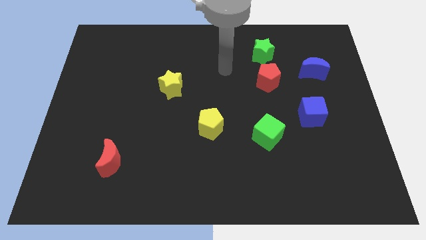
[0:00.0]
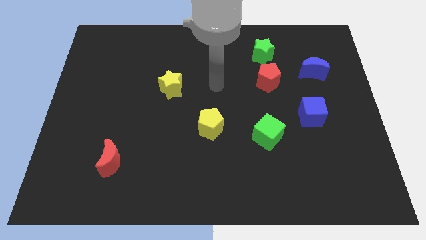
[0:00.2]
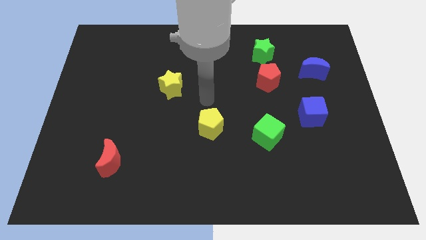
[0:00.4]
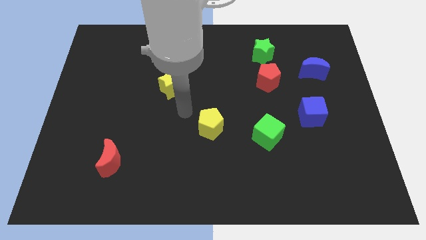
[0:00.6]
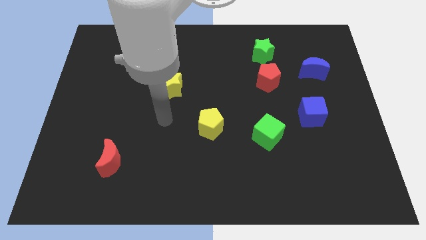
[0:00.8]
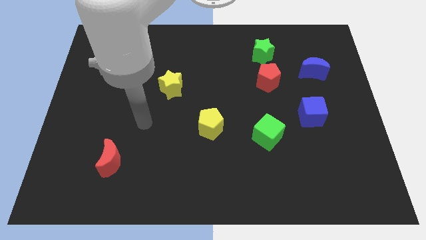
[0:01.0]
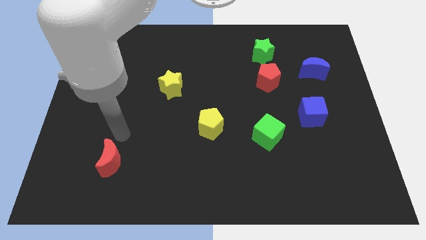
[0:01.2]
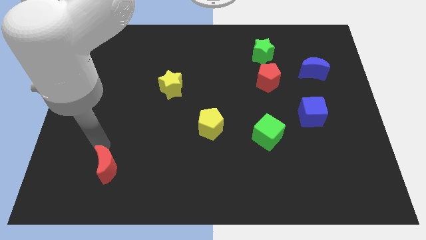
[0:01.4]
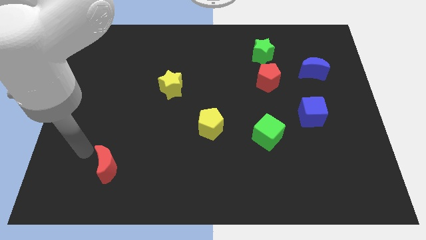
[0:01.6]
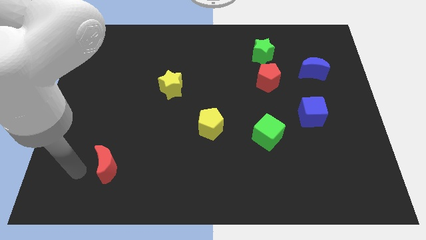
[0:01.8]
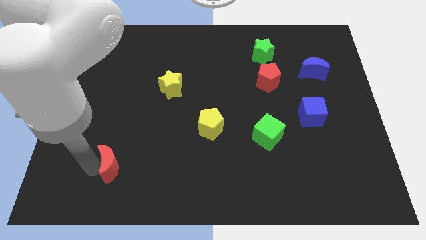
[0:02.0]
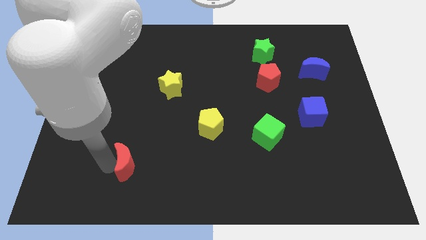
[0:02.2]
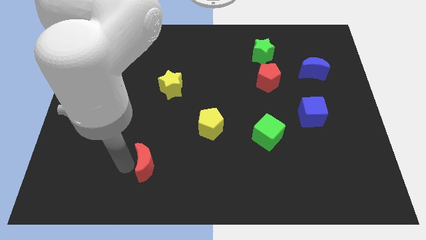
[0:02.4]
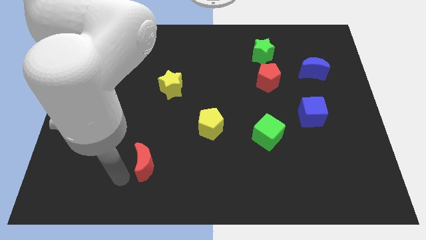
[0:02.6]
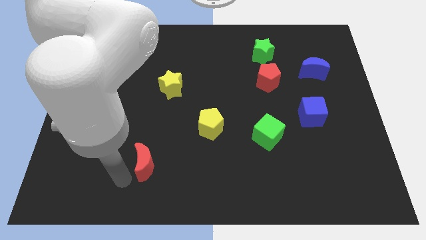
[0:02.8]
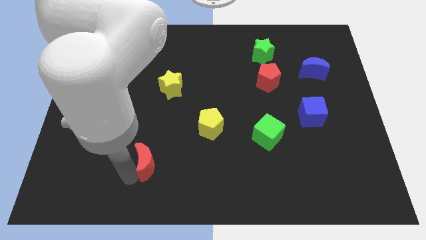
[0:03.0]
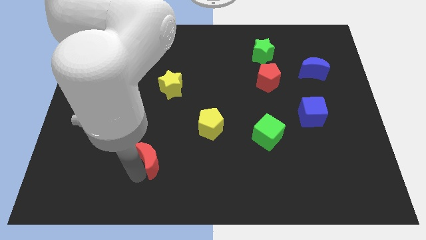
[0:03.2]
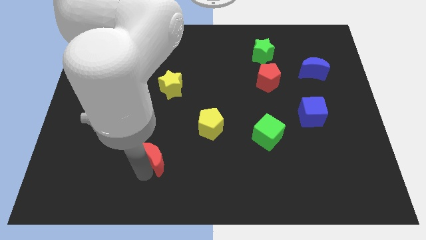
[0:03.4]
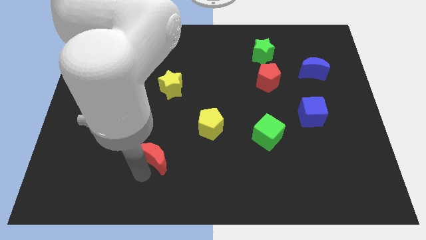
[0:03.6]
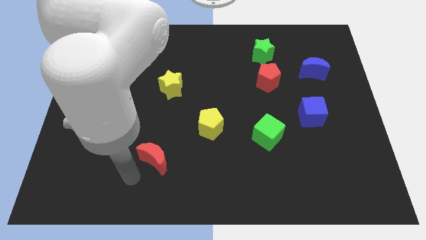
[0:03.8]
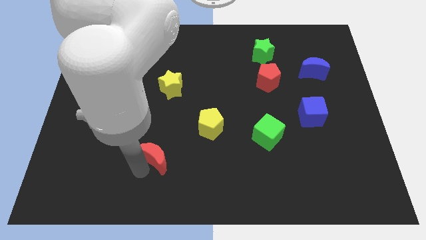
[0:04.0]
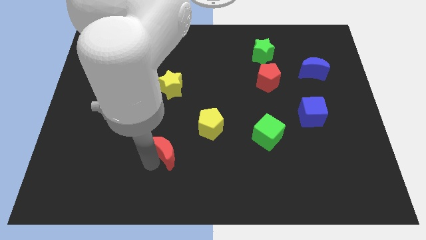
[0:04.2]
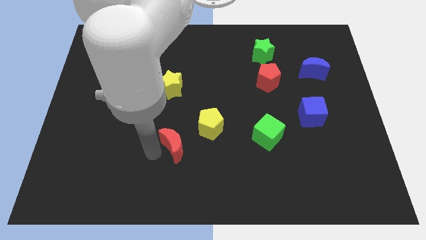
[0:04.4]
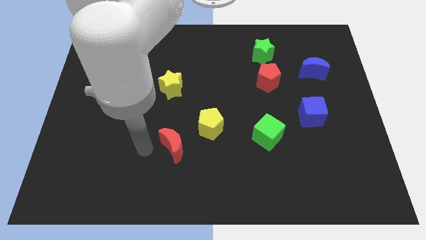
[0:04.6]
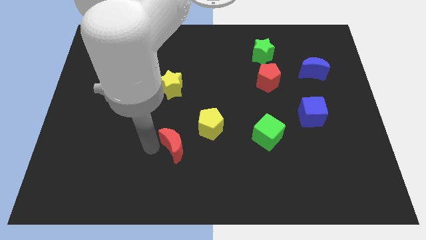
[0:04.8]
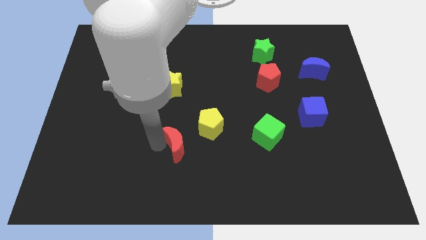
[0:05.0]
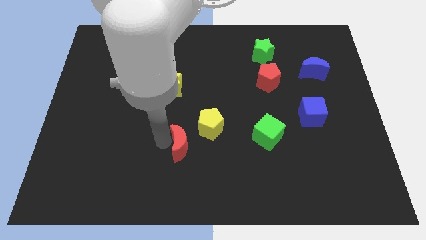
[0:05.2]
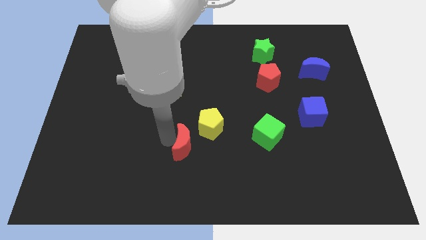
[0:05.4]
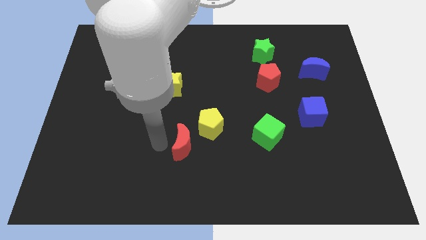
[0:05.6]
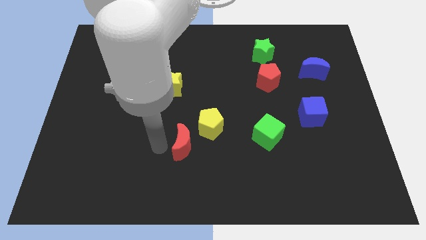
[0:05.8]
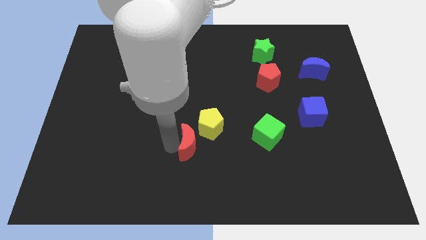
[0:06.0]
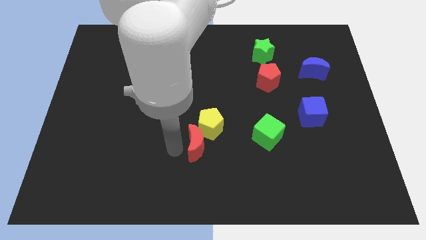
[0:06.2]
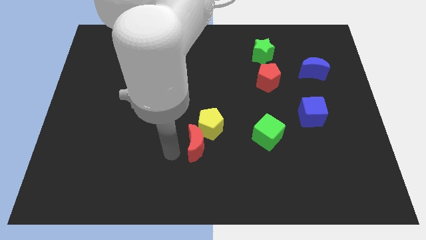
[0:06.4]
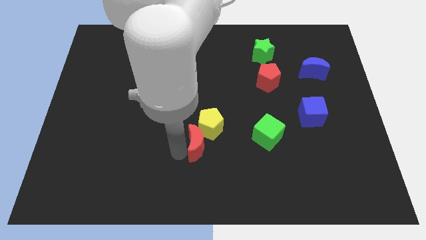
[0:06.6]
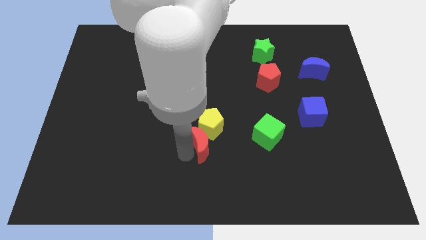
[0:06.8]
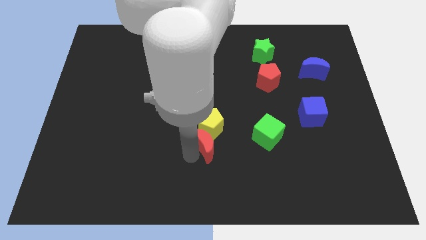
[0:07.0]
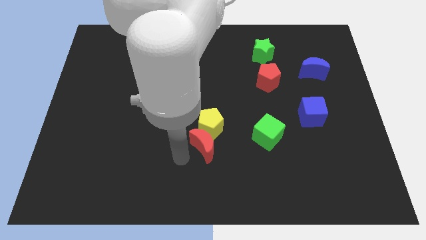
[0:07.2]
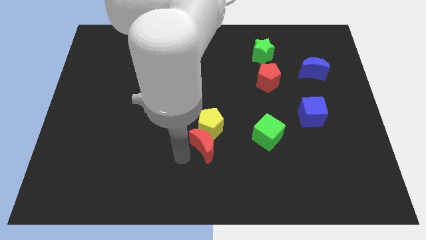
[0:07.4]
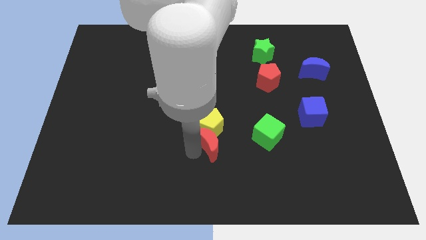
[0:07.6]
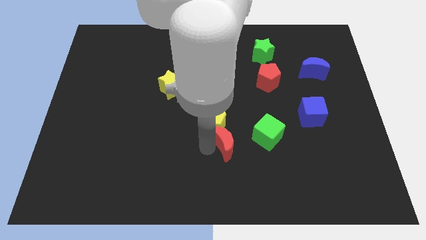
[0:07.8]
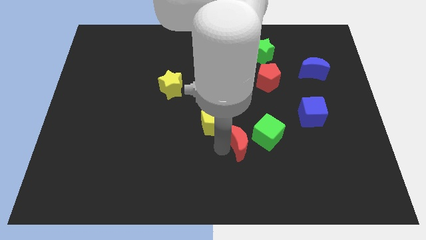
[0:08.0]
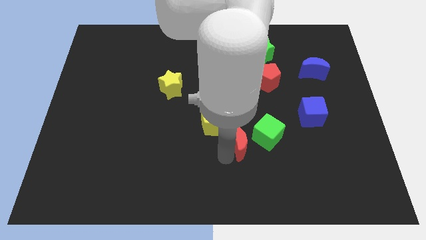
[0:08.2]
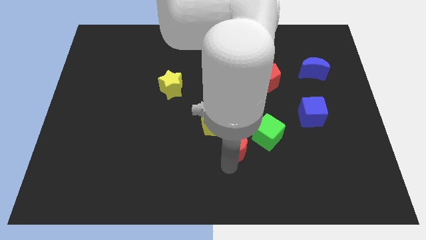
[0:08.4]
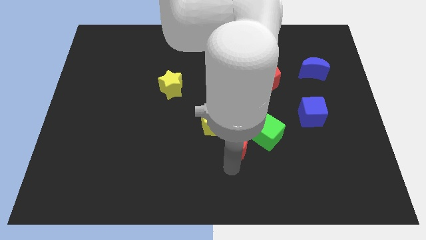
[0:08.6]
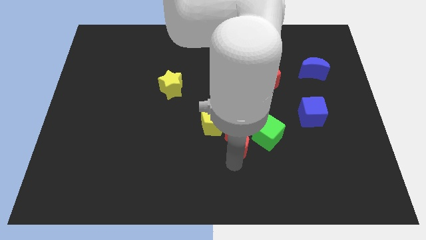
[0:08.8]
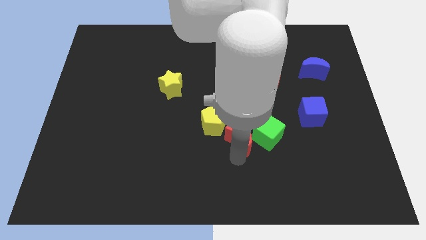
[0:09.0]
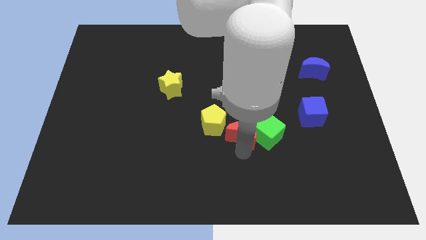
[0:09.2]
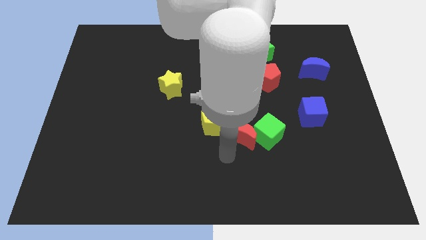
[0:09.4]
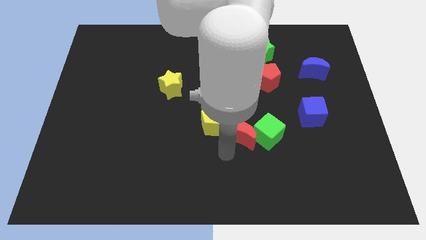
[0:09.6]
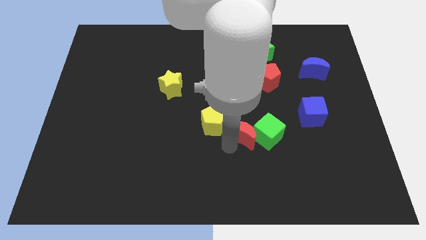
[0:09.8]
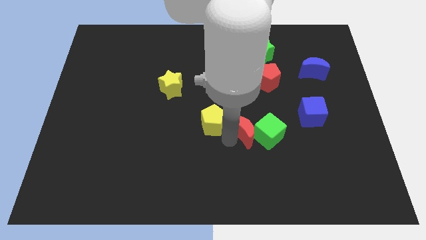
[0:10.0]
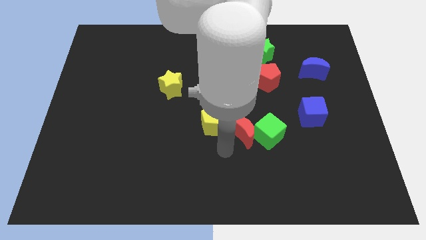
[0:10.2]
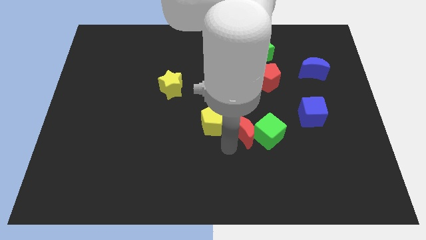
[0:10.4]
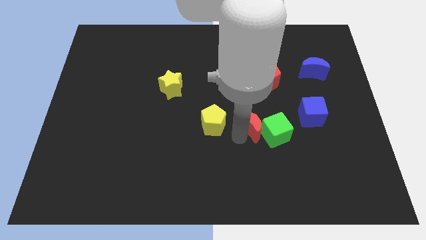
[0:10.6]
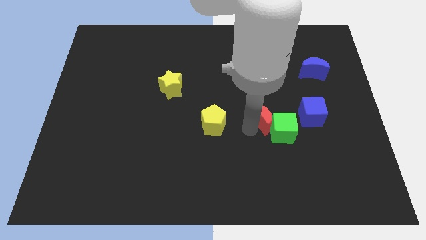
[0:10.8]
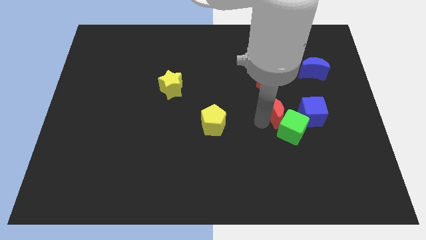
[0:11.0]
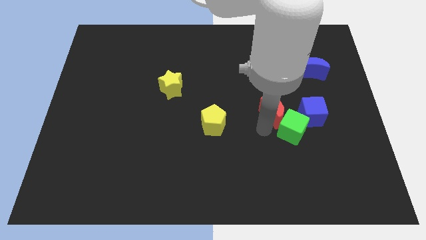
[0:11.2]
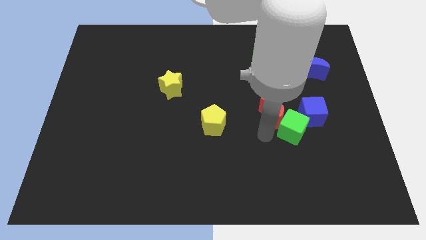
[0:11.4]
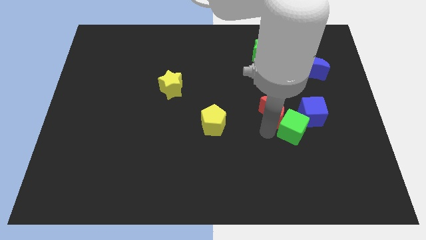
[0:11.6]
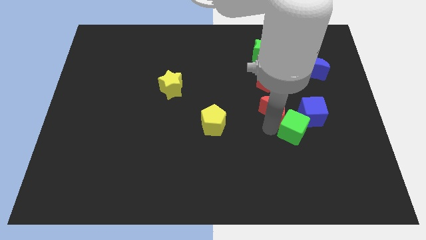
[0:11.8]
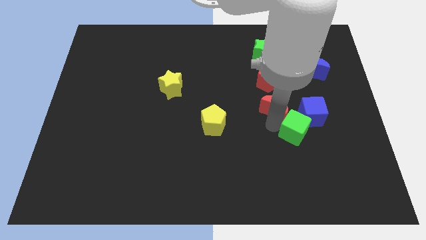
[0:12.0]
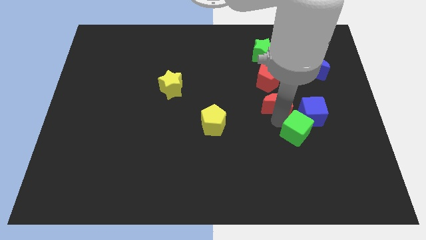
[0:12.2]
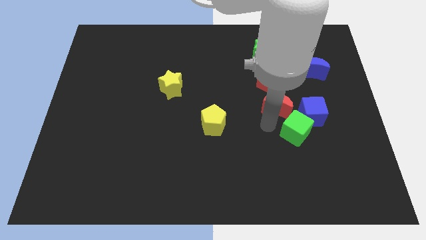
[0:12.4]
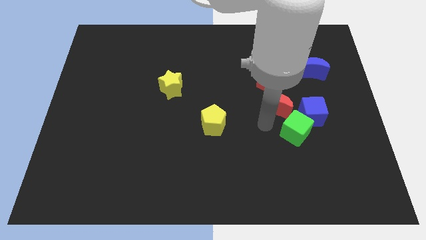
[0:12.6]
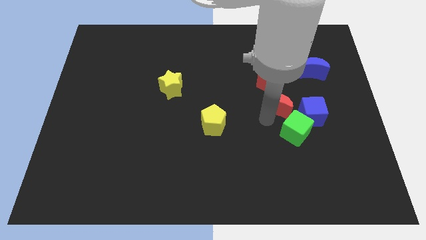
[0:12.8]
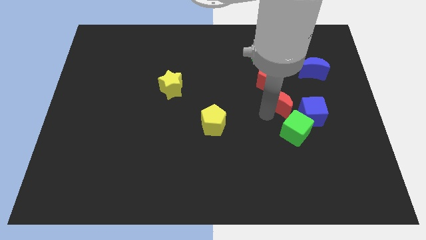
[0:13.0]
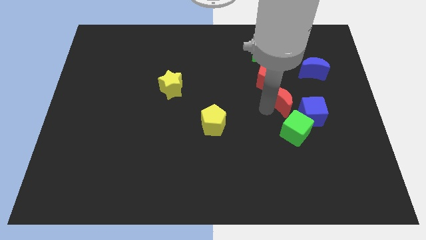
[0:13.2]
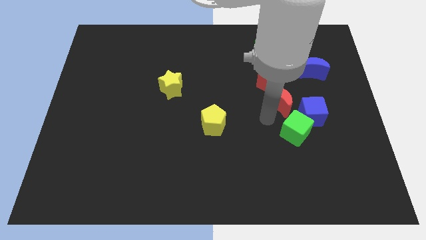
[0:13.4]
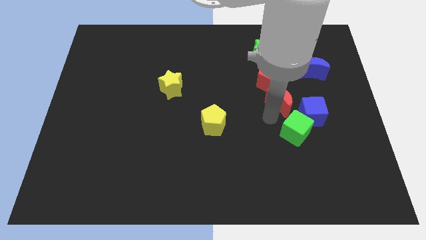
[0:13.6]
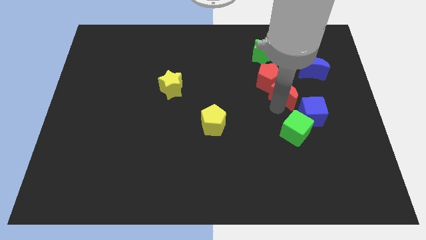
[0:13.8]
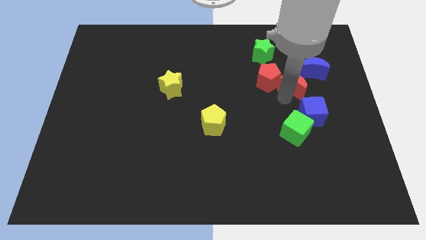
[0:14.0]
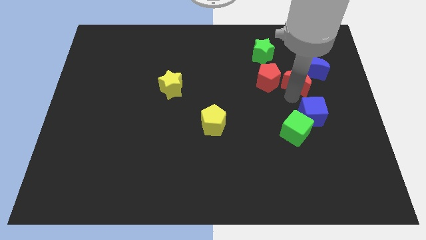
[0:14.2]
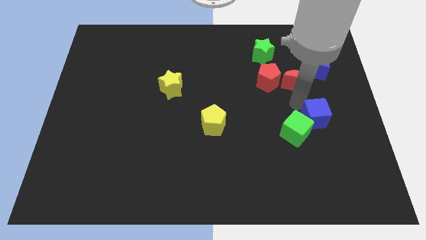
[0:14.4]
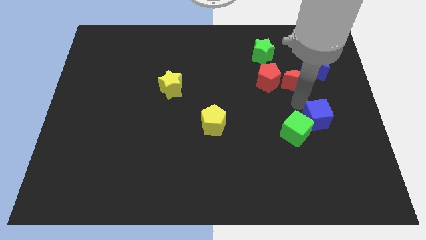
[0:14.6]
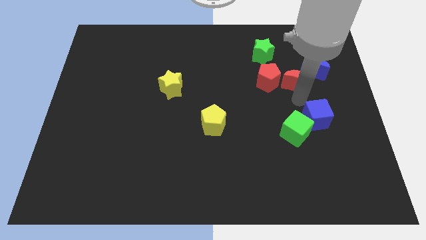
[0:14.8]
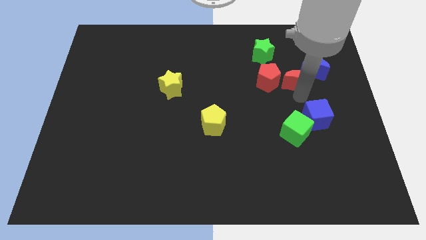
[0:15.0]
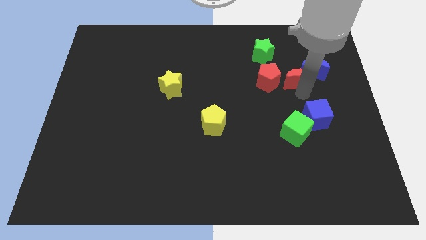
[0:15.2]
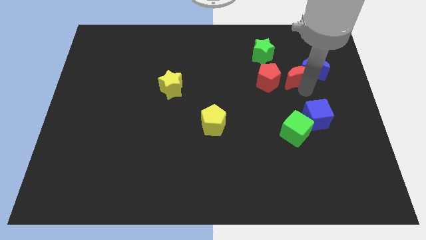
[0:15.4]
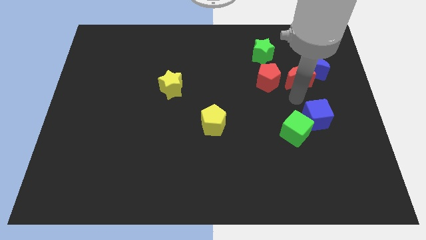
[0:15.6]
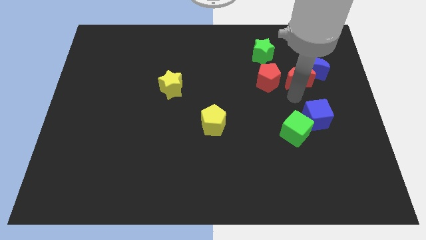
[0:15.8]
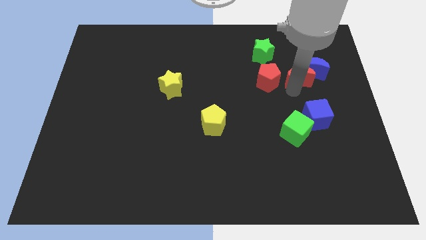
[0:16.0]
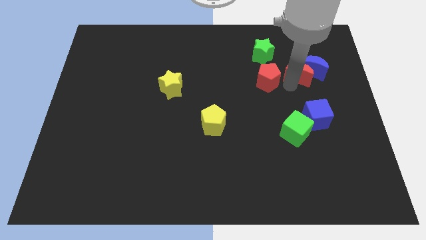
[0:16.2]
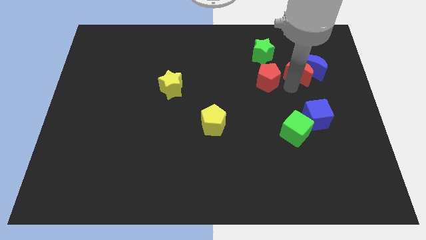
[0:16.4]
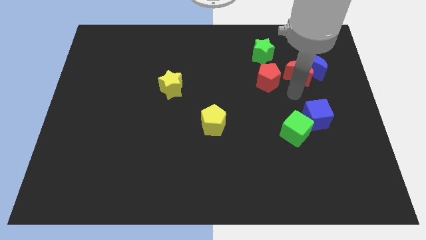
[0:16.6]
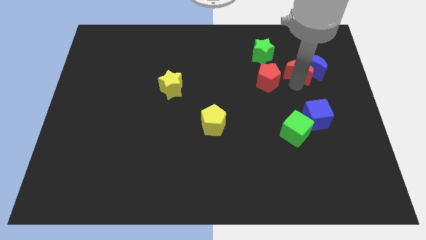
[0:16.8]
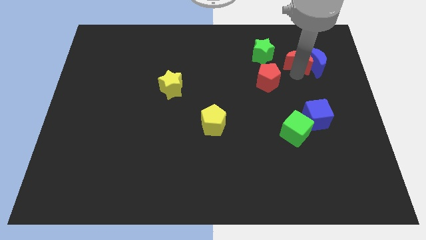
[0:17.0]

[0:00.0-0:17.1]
push the red moon right of the green star
